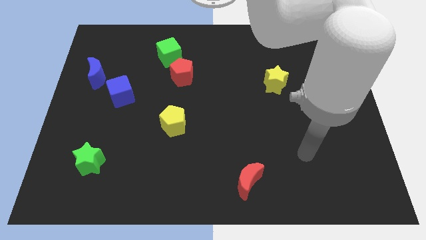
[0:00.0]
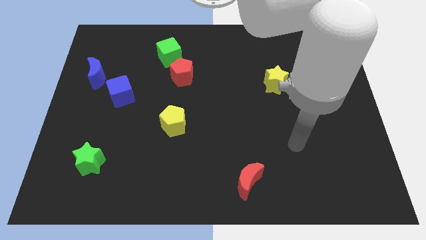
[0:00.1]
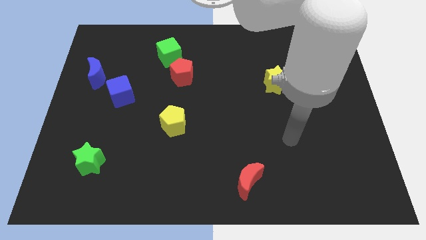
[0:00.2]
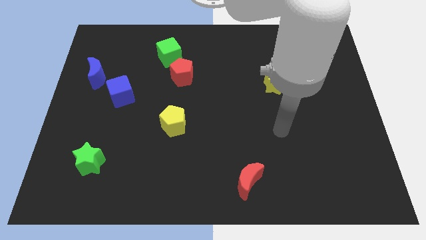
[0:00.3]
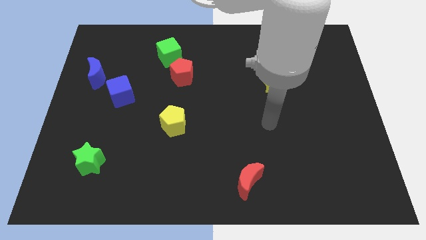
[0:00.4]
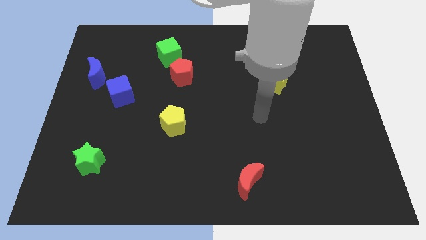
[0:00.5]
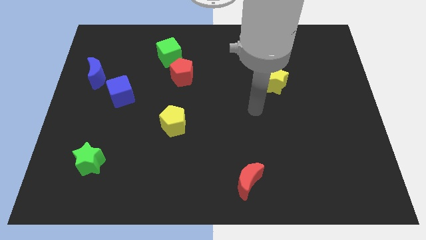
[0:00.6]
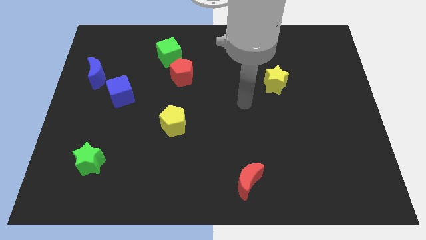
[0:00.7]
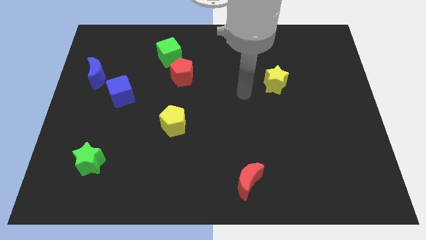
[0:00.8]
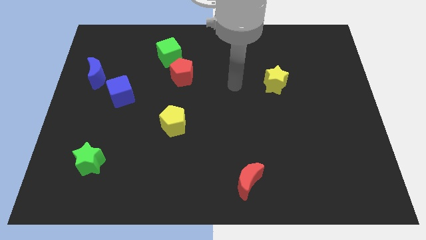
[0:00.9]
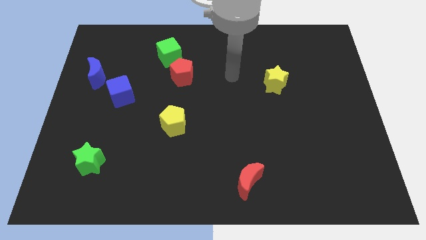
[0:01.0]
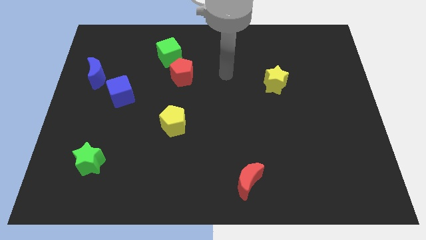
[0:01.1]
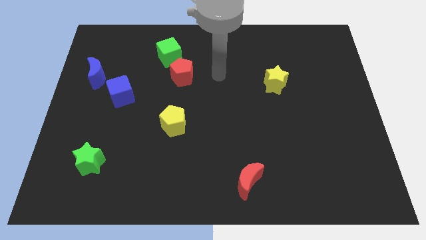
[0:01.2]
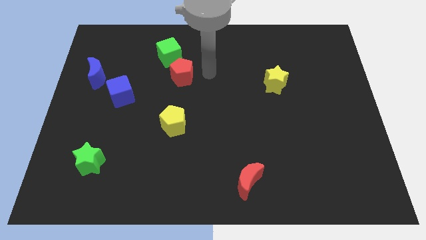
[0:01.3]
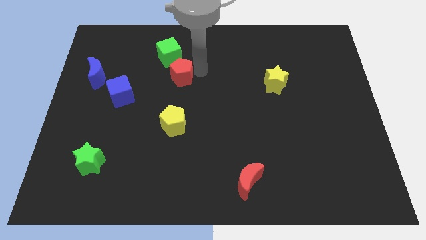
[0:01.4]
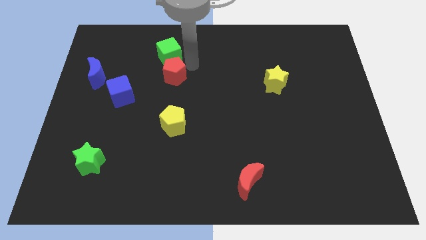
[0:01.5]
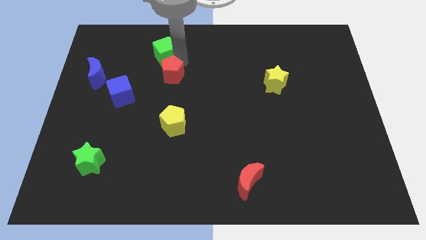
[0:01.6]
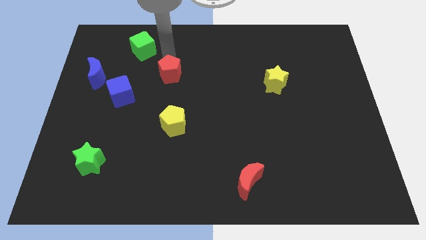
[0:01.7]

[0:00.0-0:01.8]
move the red pentagon away from the green cube

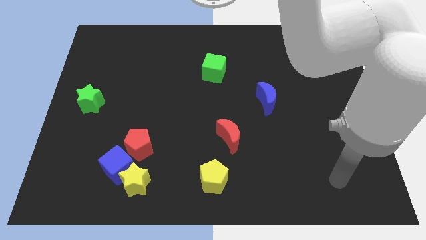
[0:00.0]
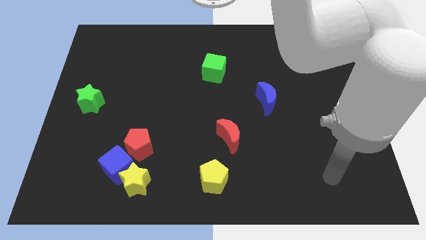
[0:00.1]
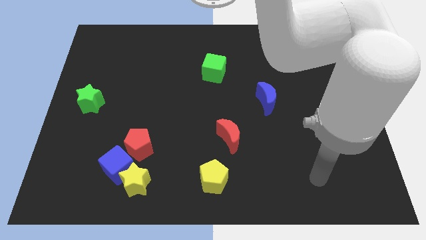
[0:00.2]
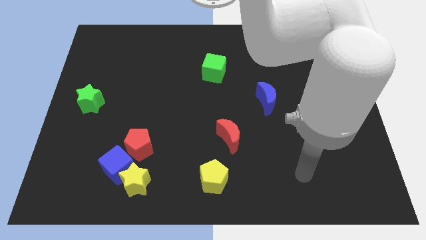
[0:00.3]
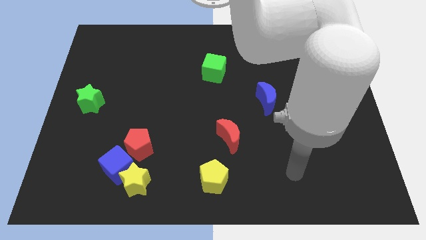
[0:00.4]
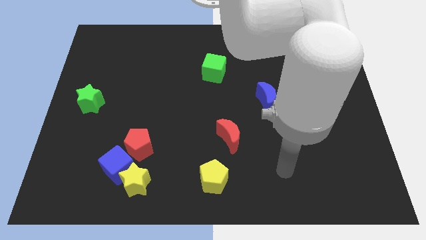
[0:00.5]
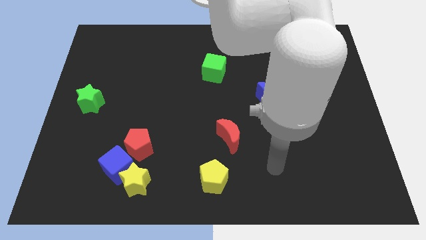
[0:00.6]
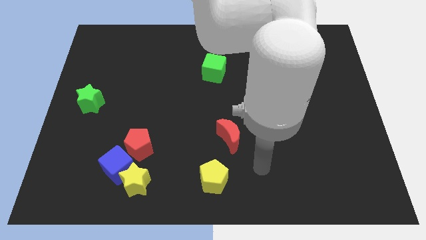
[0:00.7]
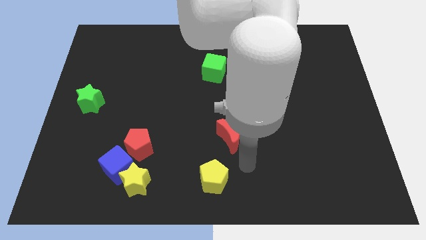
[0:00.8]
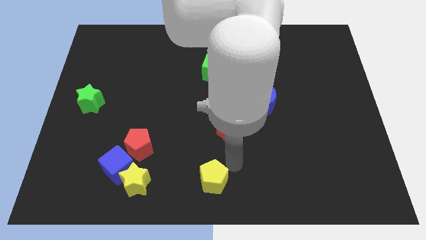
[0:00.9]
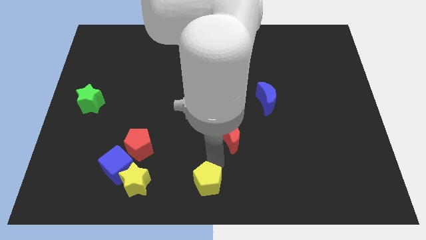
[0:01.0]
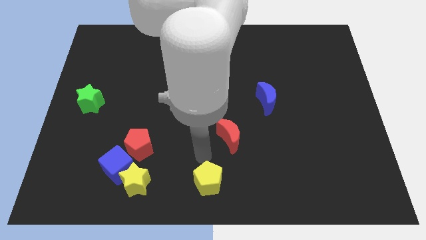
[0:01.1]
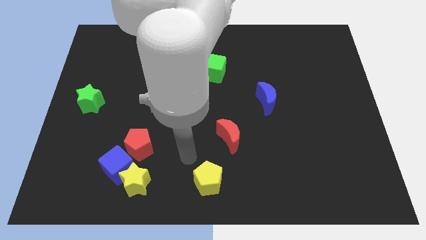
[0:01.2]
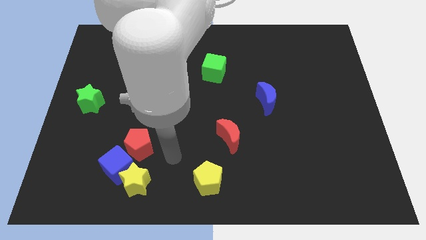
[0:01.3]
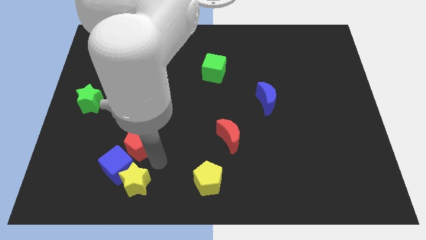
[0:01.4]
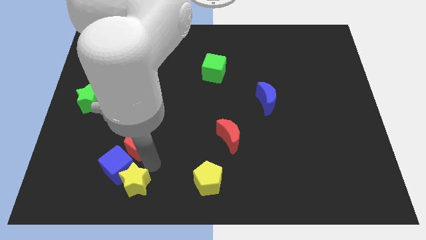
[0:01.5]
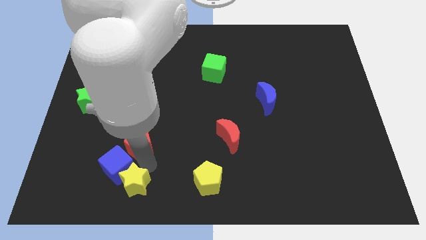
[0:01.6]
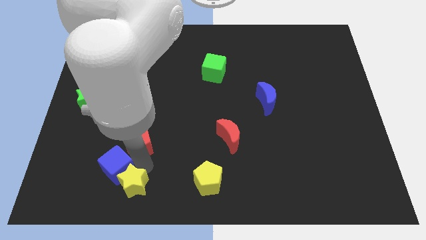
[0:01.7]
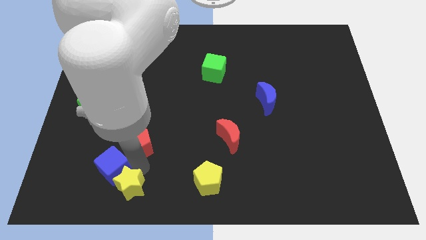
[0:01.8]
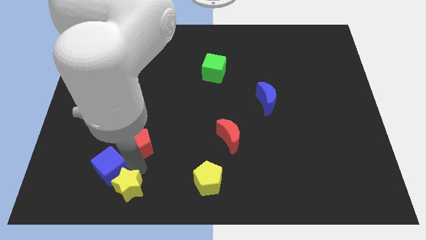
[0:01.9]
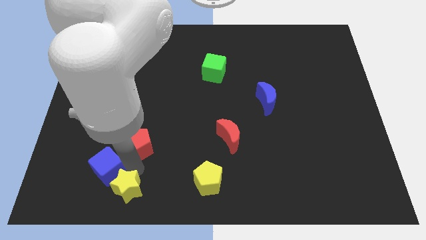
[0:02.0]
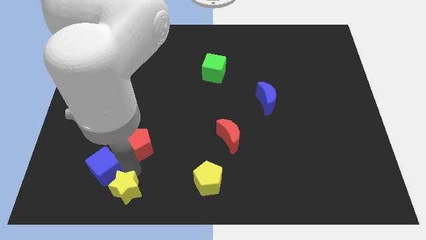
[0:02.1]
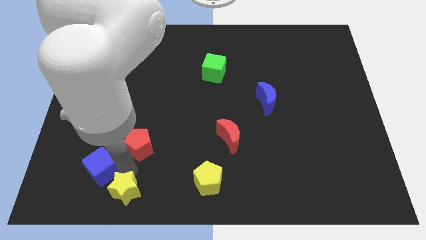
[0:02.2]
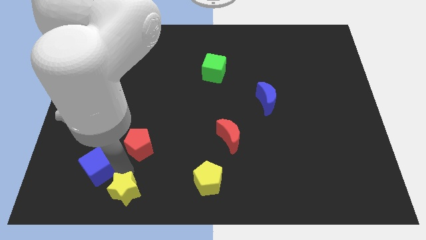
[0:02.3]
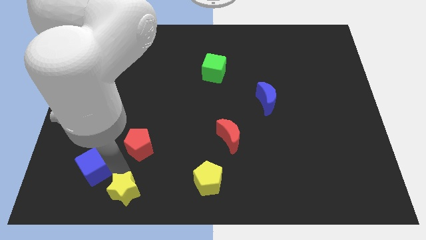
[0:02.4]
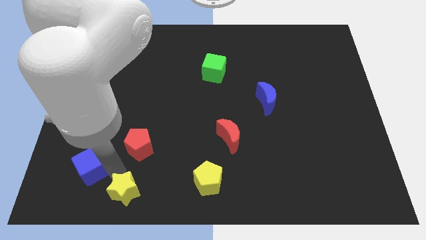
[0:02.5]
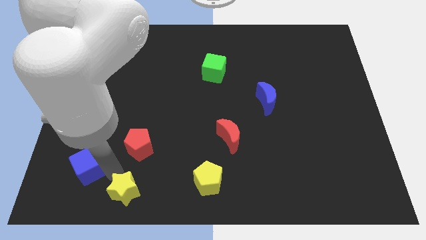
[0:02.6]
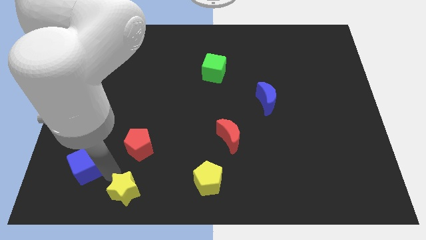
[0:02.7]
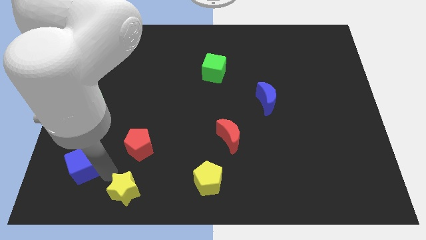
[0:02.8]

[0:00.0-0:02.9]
move the blue cube away from the yellow star and red pentagon

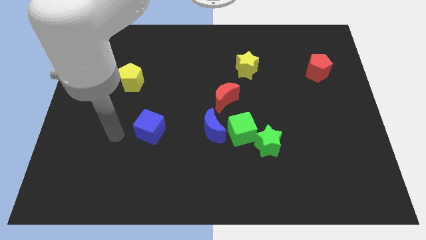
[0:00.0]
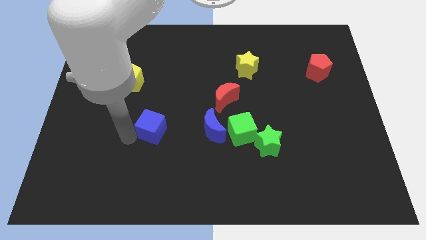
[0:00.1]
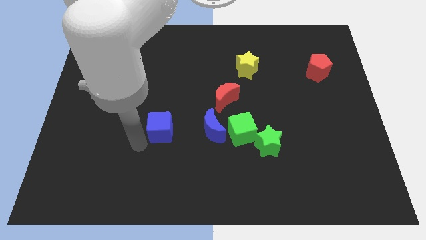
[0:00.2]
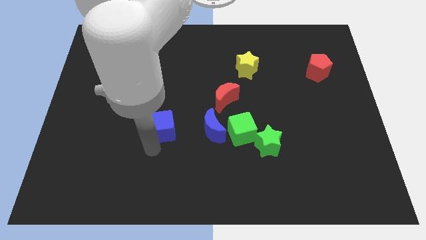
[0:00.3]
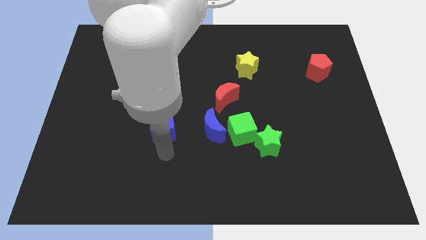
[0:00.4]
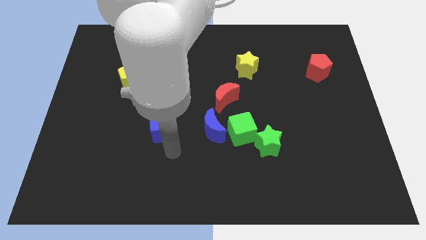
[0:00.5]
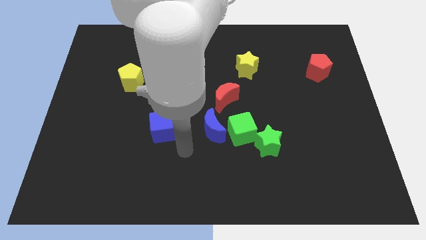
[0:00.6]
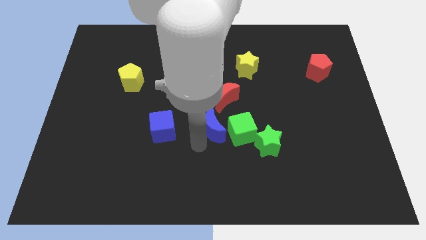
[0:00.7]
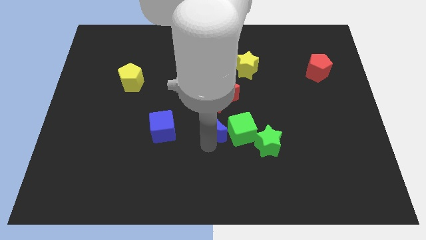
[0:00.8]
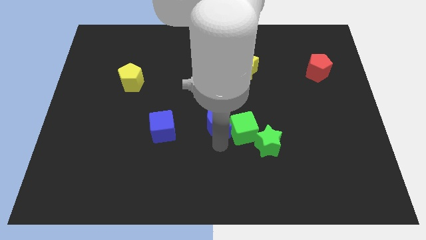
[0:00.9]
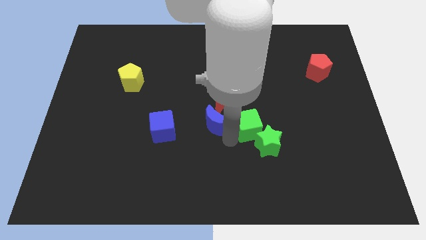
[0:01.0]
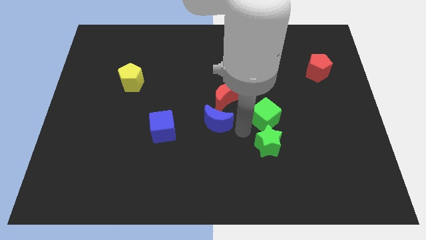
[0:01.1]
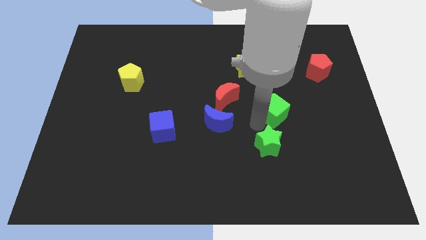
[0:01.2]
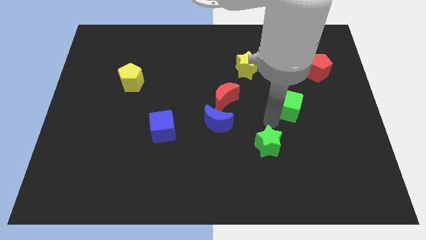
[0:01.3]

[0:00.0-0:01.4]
separate the green star from the green cube

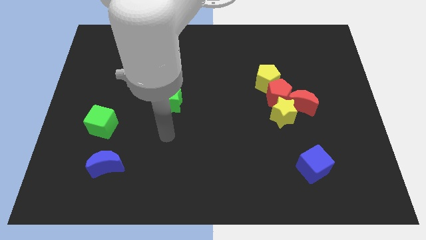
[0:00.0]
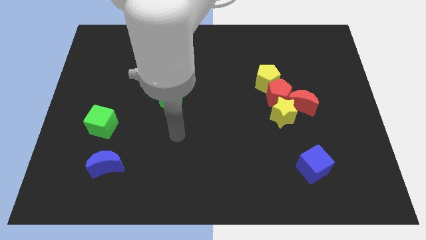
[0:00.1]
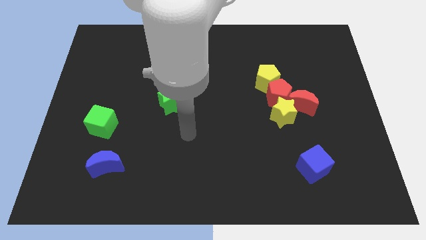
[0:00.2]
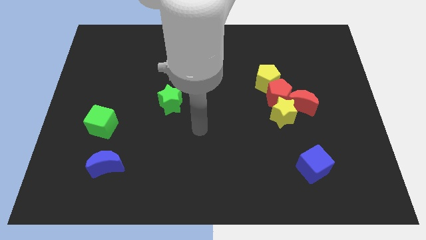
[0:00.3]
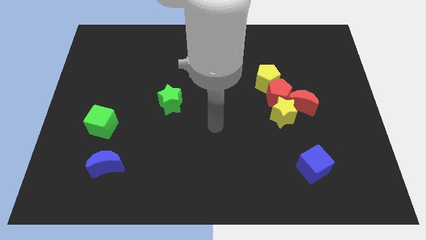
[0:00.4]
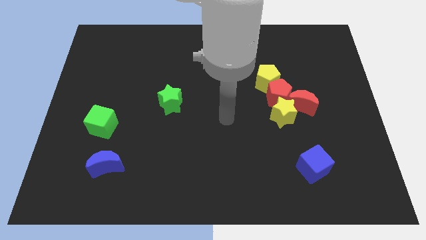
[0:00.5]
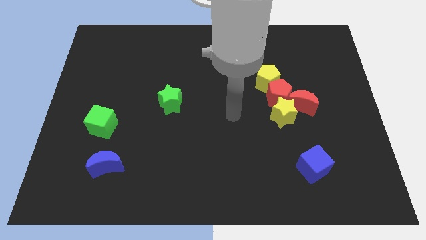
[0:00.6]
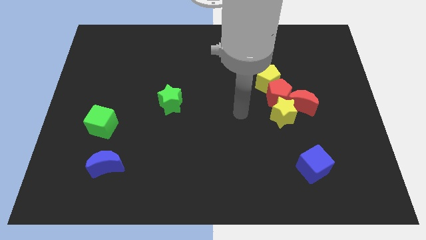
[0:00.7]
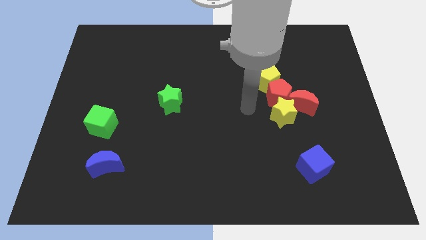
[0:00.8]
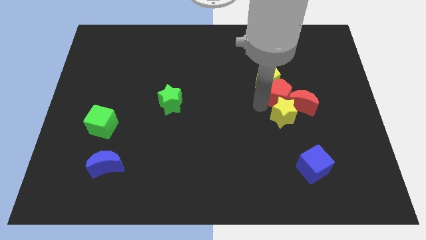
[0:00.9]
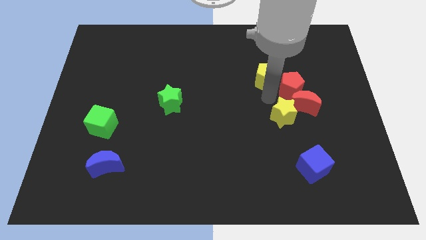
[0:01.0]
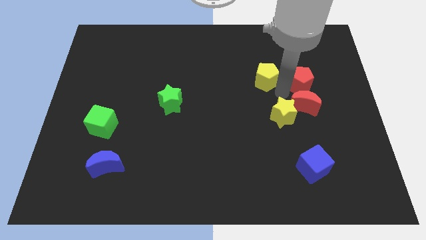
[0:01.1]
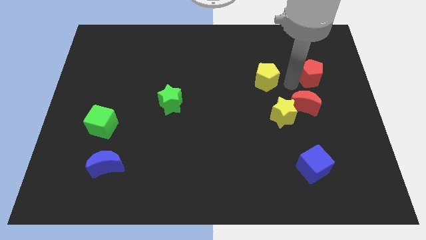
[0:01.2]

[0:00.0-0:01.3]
move the yellow pentagon away from the red pentagon

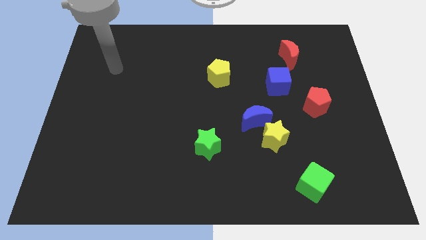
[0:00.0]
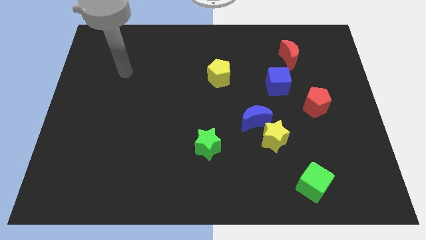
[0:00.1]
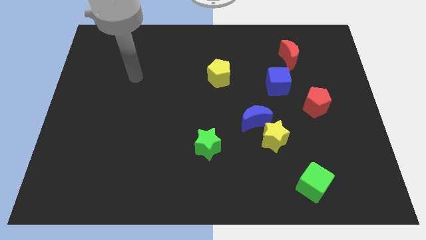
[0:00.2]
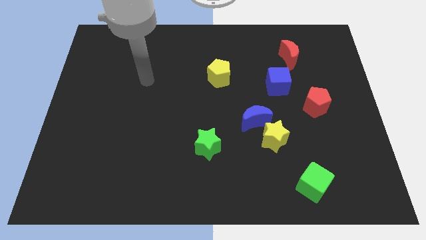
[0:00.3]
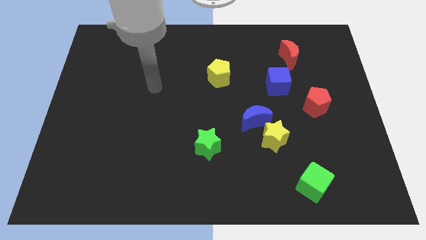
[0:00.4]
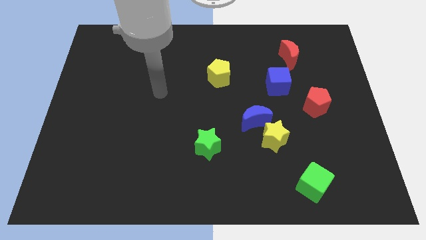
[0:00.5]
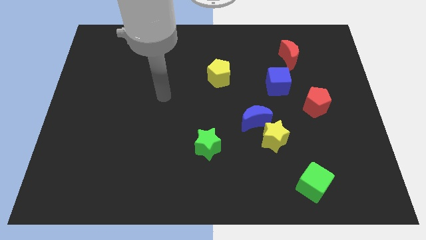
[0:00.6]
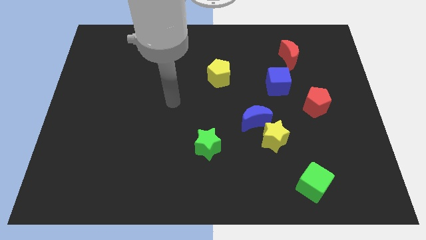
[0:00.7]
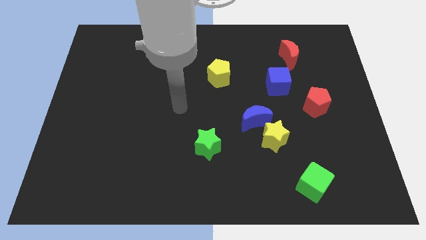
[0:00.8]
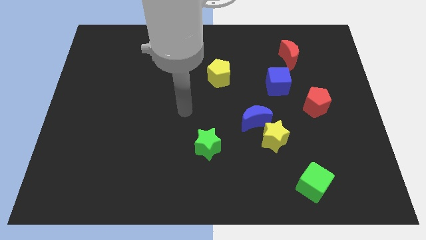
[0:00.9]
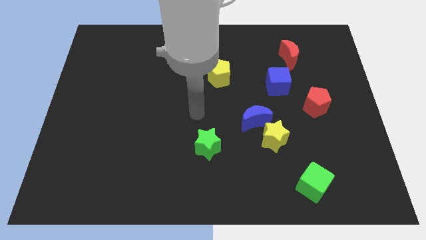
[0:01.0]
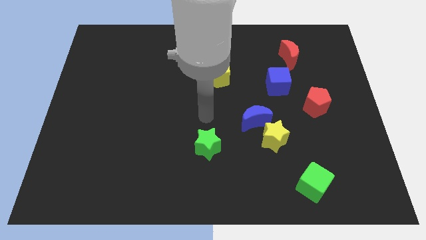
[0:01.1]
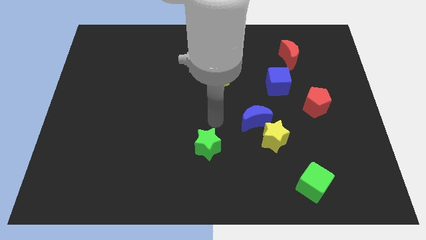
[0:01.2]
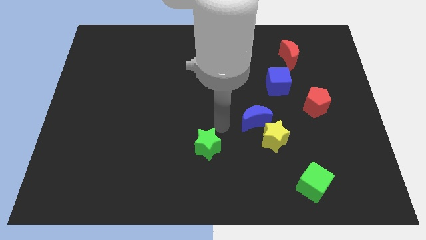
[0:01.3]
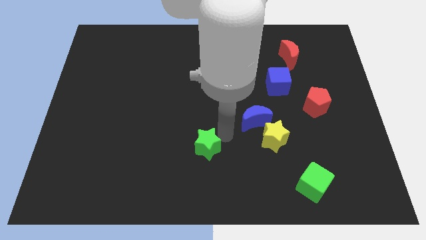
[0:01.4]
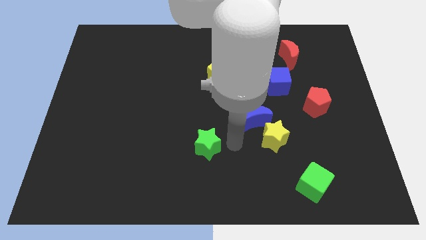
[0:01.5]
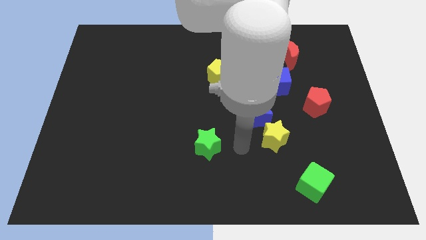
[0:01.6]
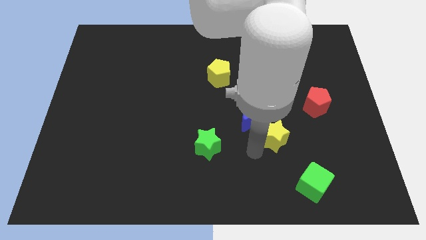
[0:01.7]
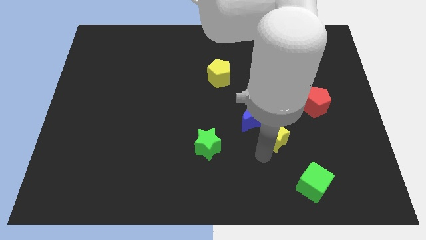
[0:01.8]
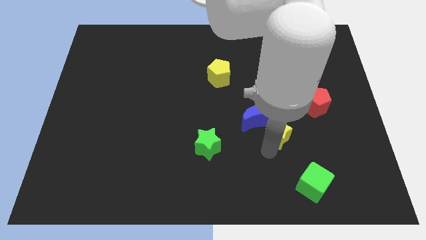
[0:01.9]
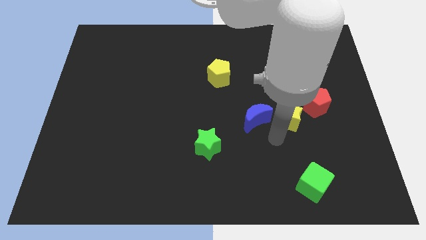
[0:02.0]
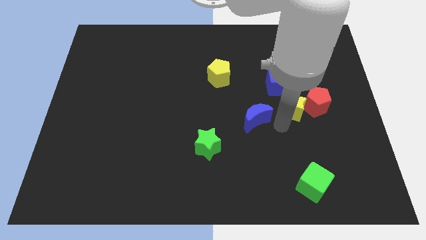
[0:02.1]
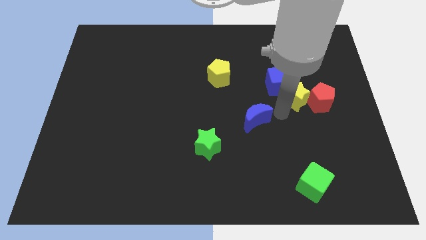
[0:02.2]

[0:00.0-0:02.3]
separate the blue moon from the yellow star
